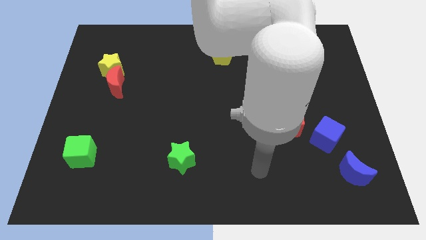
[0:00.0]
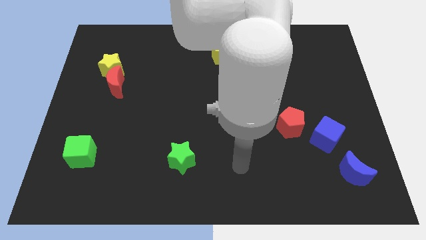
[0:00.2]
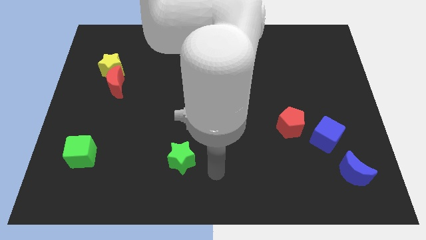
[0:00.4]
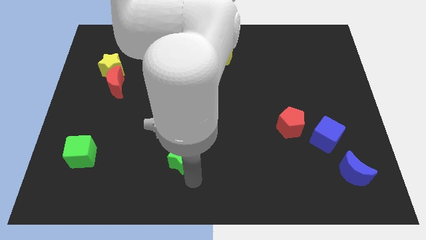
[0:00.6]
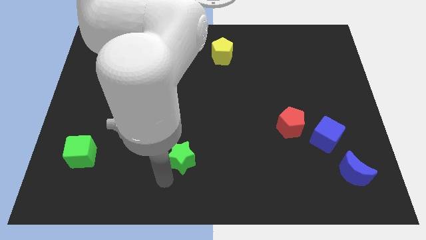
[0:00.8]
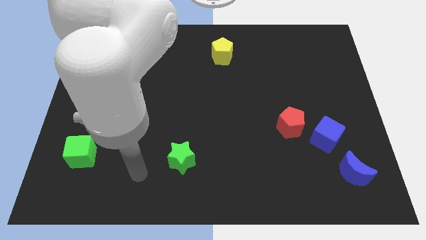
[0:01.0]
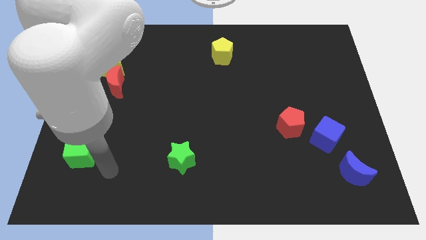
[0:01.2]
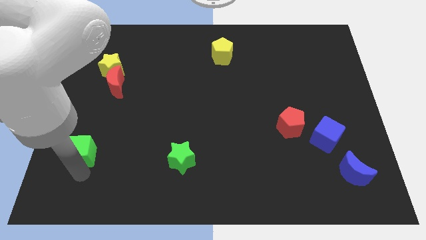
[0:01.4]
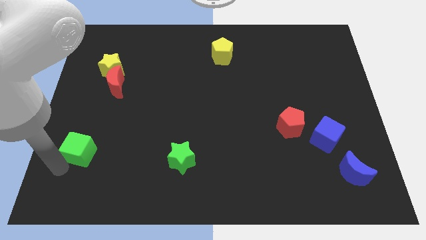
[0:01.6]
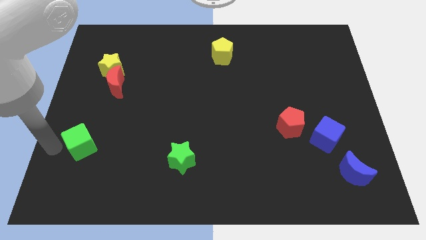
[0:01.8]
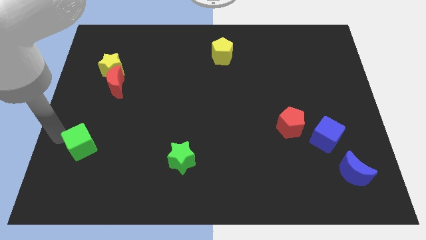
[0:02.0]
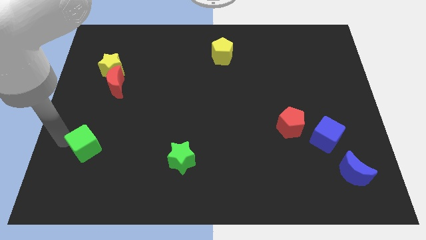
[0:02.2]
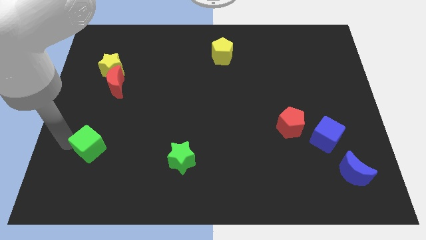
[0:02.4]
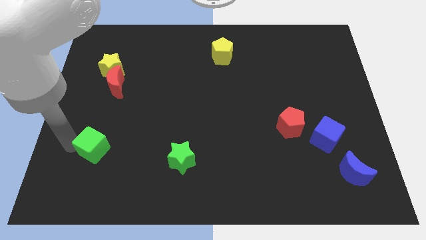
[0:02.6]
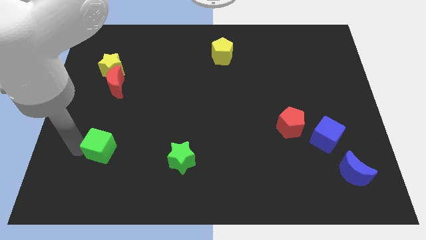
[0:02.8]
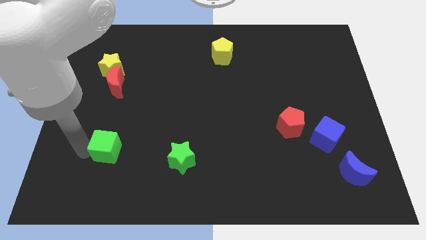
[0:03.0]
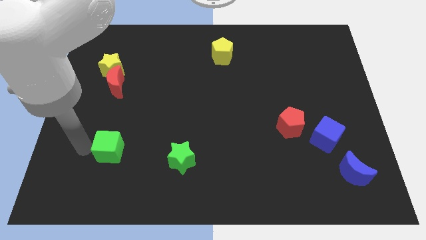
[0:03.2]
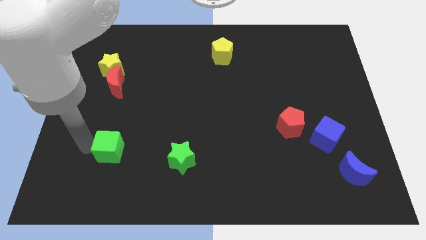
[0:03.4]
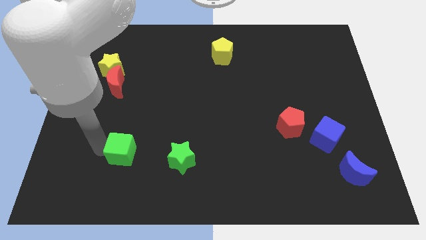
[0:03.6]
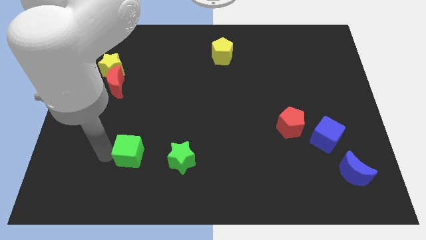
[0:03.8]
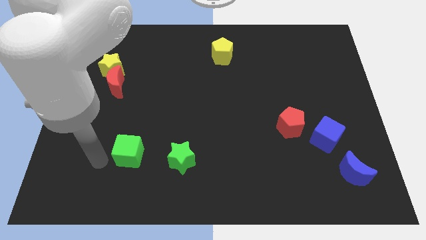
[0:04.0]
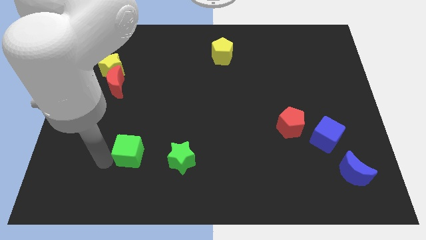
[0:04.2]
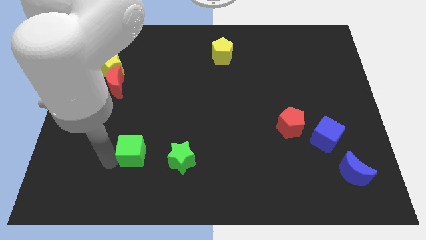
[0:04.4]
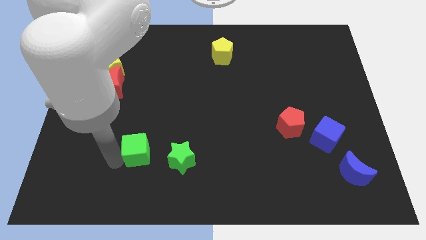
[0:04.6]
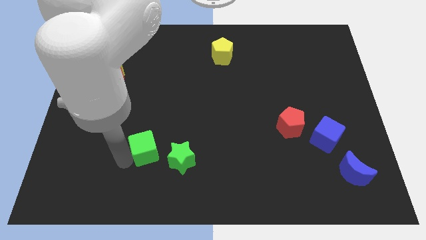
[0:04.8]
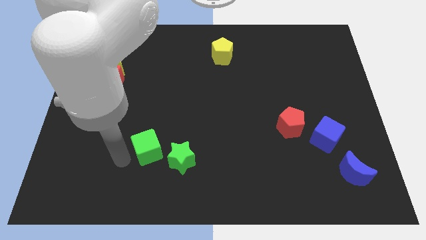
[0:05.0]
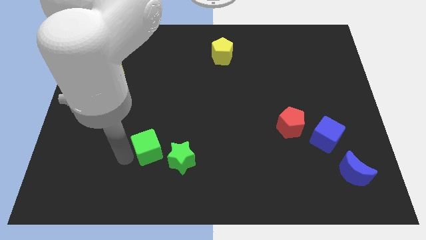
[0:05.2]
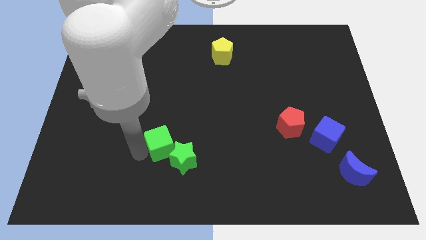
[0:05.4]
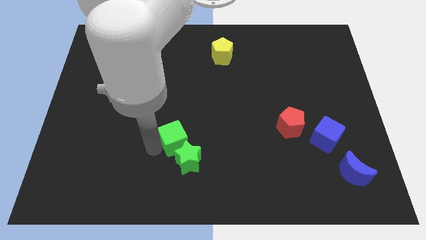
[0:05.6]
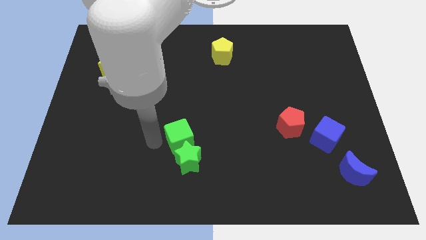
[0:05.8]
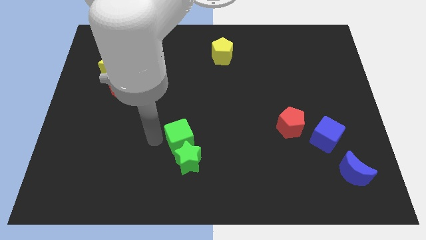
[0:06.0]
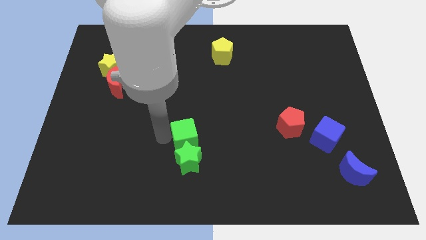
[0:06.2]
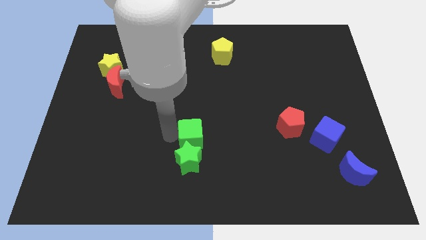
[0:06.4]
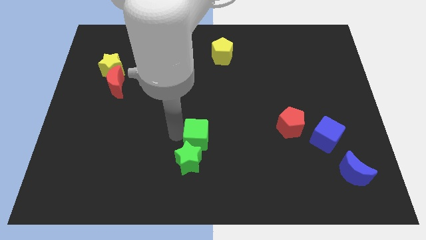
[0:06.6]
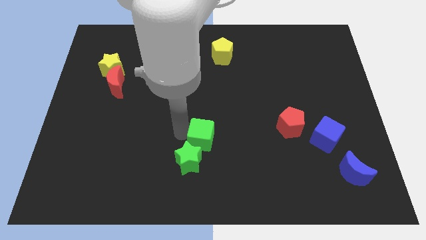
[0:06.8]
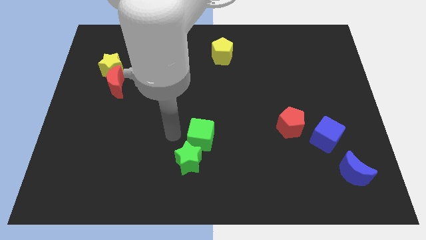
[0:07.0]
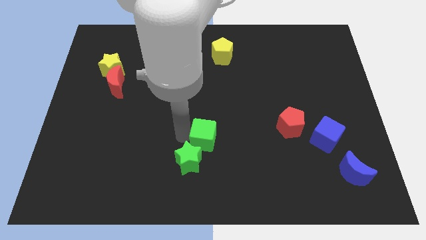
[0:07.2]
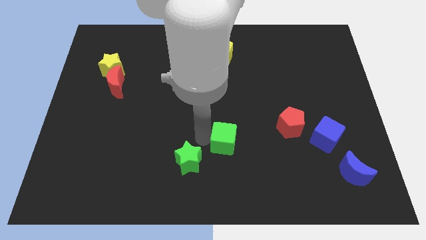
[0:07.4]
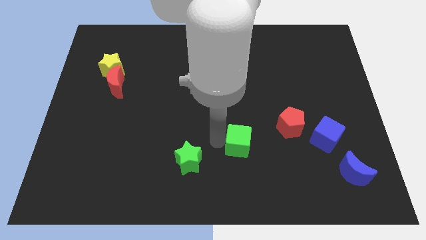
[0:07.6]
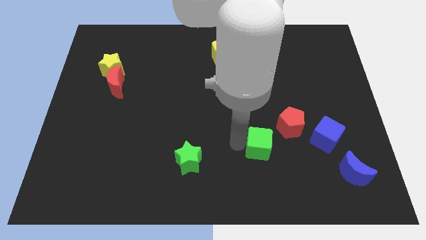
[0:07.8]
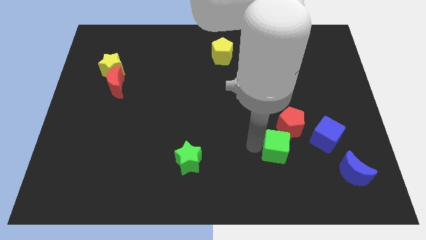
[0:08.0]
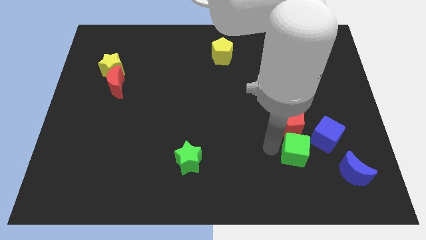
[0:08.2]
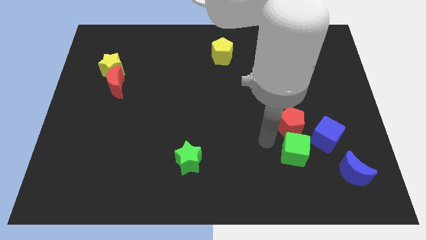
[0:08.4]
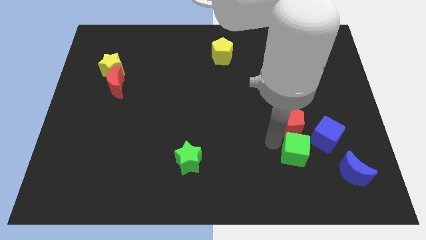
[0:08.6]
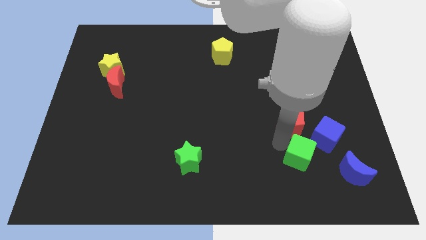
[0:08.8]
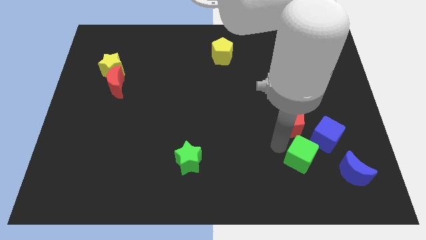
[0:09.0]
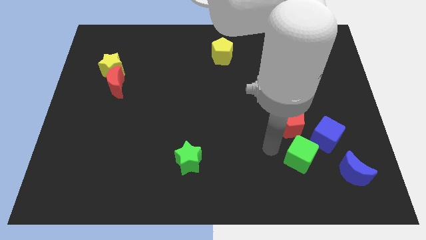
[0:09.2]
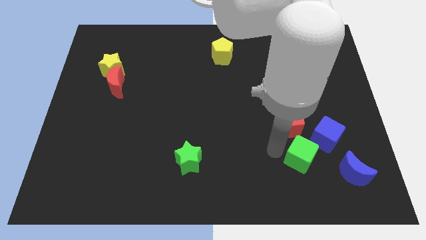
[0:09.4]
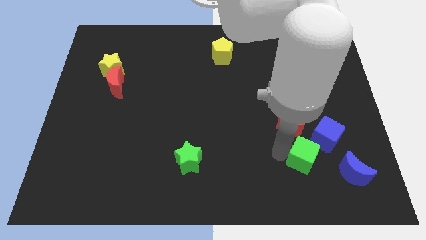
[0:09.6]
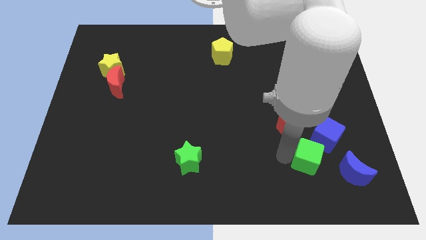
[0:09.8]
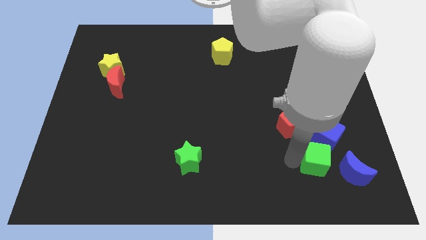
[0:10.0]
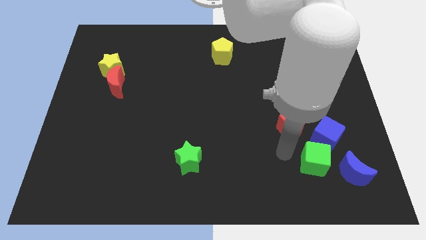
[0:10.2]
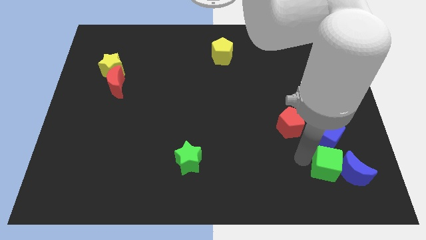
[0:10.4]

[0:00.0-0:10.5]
put the green cube to the blue moon

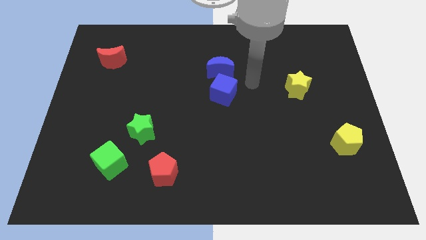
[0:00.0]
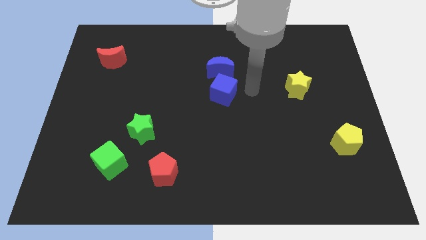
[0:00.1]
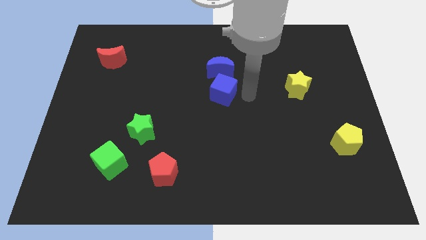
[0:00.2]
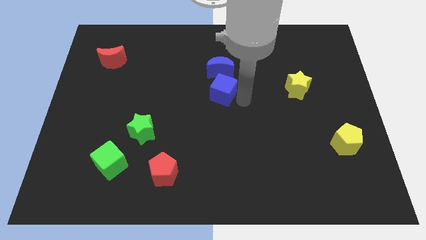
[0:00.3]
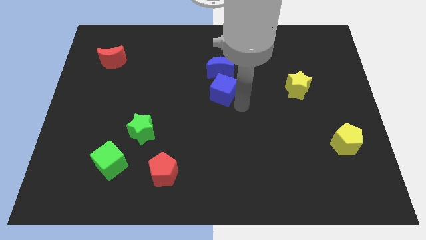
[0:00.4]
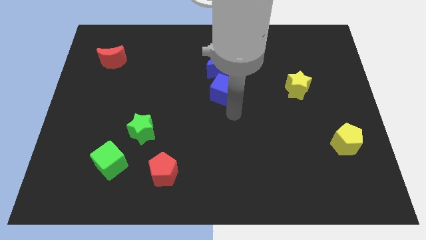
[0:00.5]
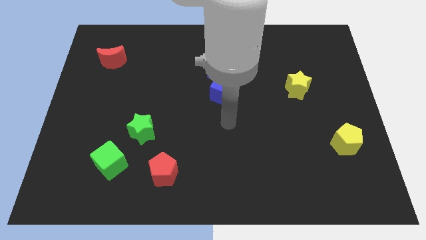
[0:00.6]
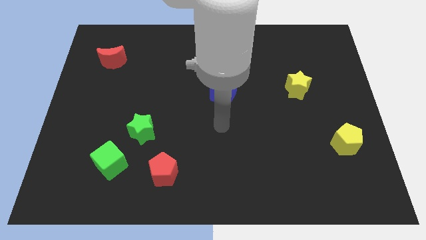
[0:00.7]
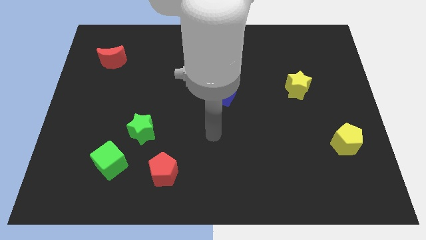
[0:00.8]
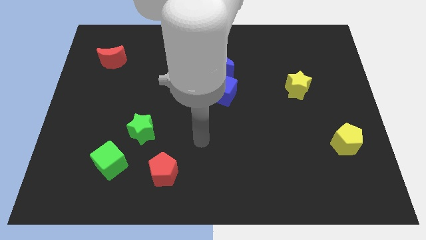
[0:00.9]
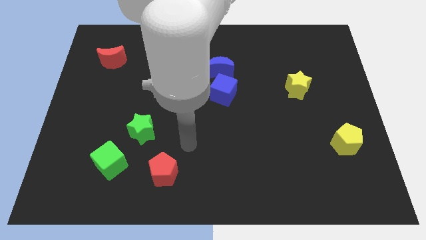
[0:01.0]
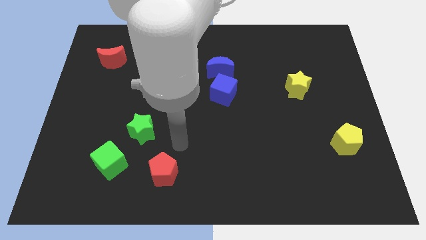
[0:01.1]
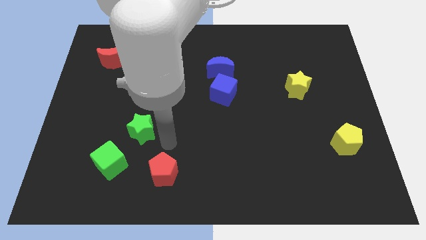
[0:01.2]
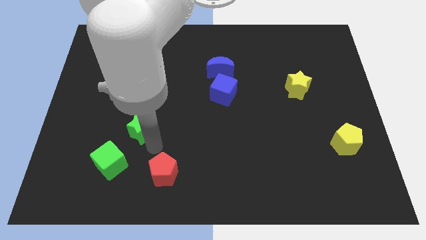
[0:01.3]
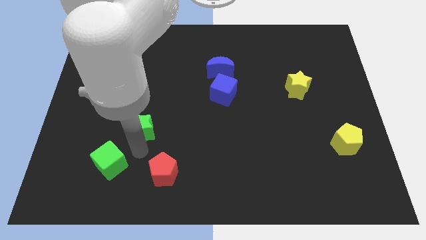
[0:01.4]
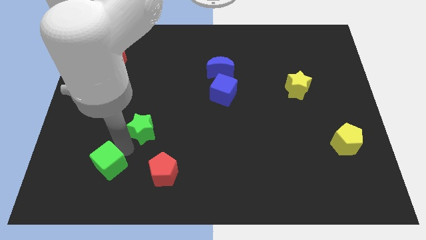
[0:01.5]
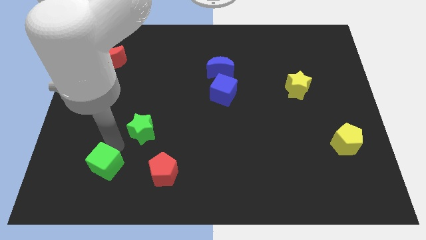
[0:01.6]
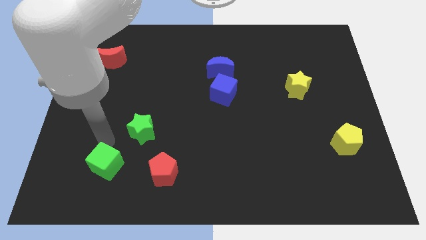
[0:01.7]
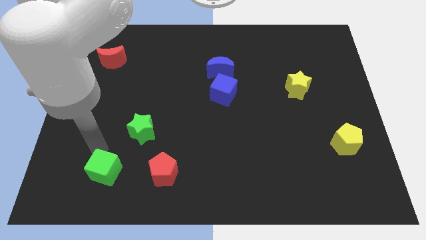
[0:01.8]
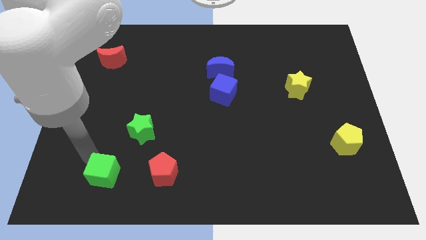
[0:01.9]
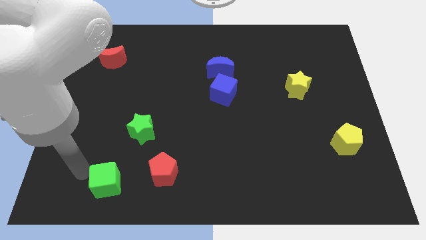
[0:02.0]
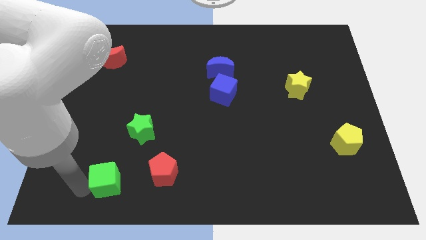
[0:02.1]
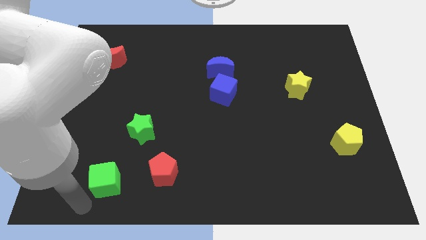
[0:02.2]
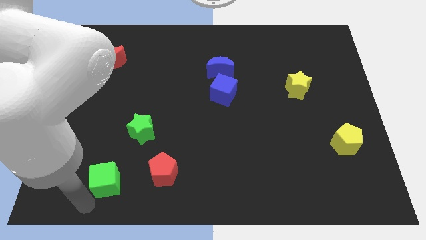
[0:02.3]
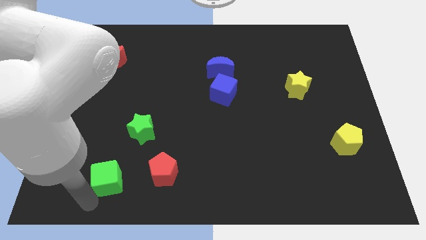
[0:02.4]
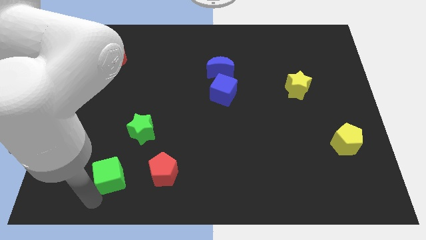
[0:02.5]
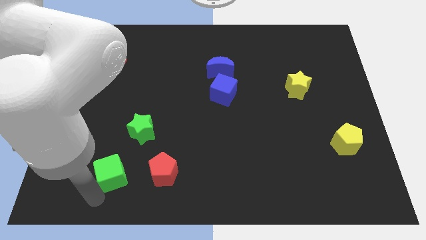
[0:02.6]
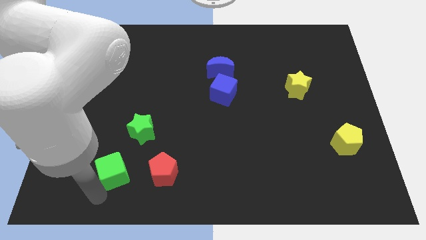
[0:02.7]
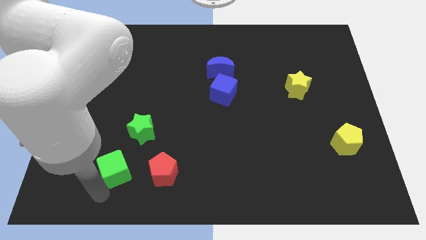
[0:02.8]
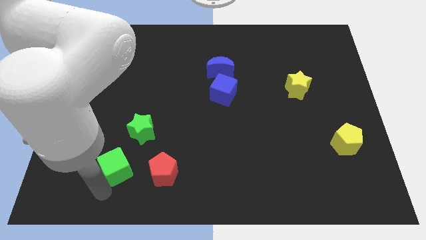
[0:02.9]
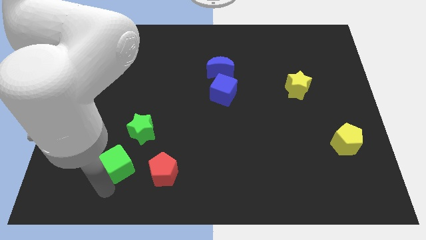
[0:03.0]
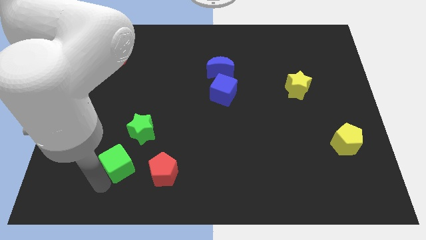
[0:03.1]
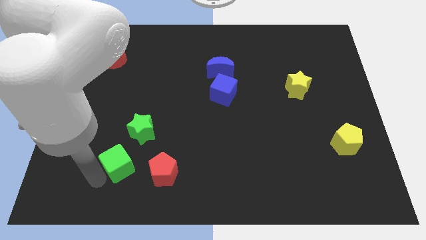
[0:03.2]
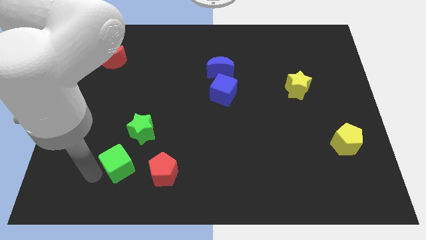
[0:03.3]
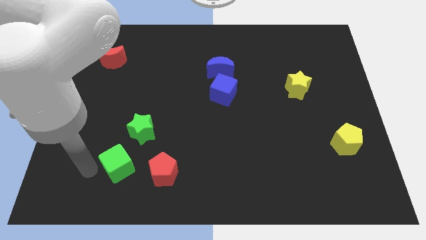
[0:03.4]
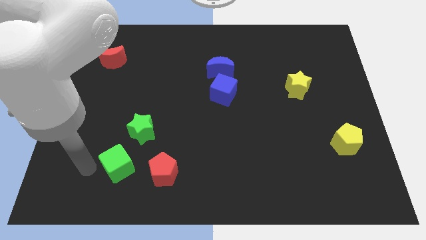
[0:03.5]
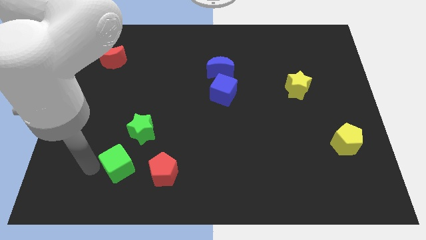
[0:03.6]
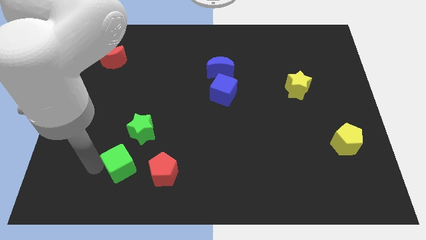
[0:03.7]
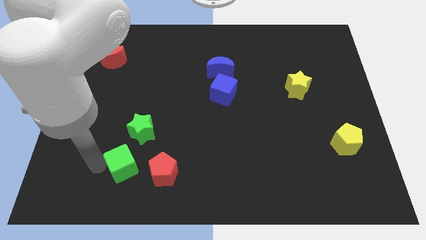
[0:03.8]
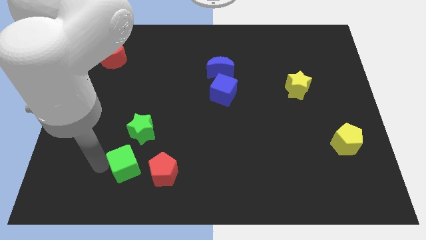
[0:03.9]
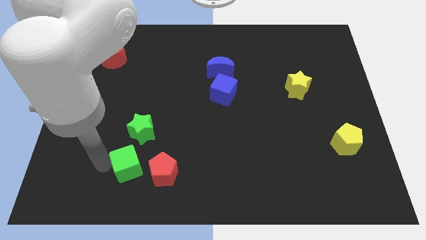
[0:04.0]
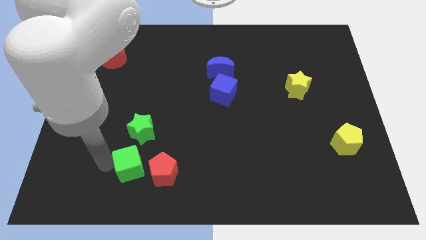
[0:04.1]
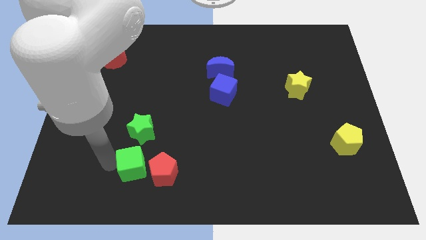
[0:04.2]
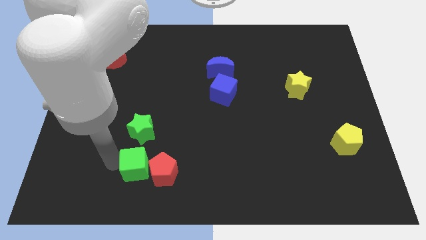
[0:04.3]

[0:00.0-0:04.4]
put the green cube to the red pentagon
